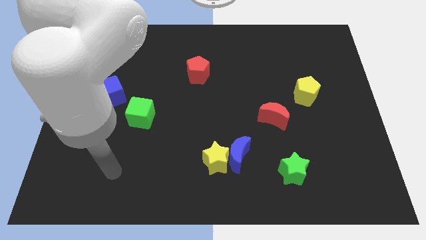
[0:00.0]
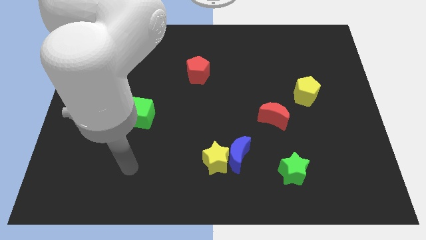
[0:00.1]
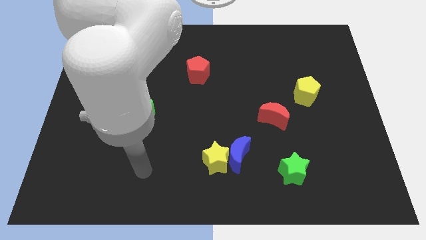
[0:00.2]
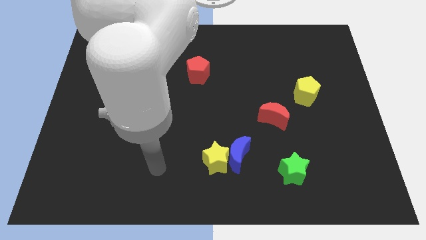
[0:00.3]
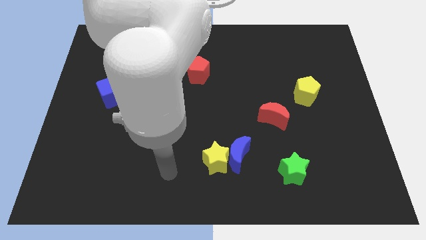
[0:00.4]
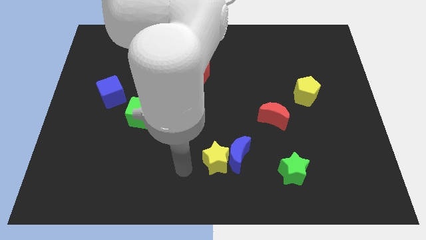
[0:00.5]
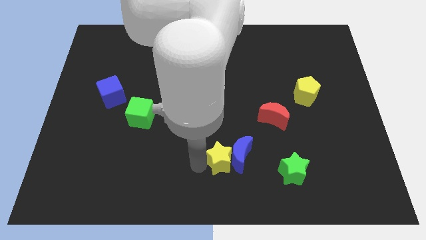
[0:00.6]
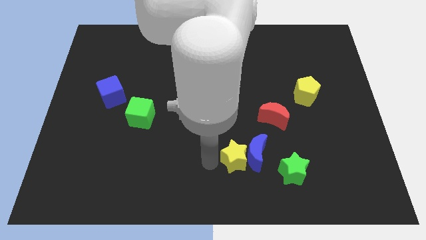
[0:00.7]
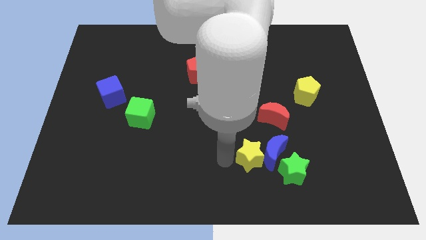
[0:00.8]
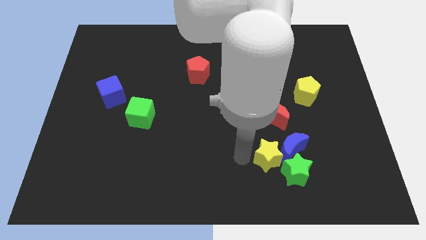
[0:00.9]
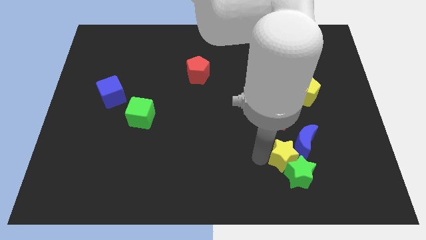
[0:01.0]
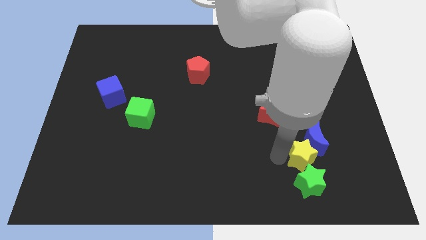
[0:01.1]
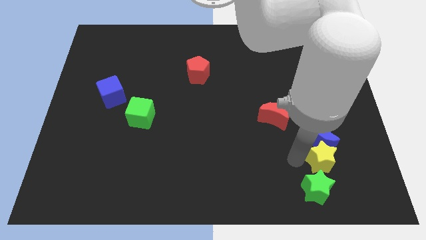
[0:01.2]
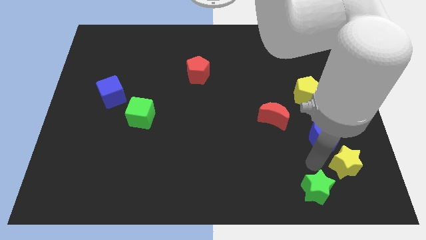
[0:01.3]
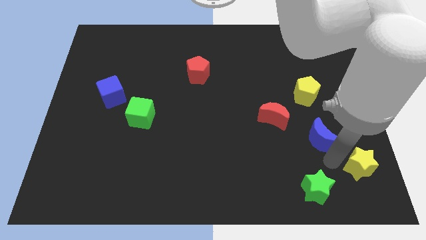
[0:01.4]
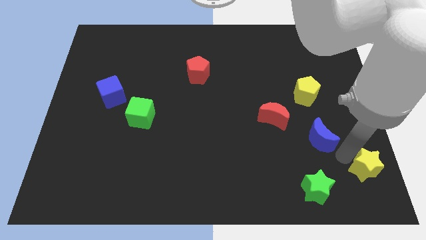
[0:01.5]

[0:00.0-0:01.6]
pull the blue moon apart from the yellow star

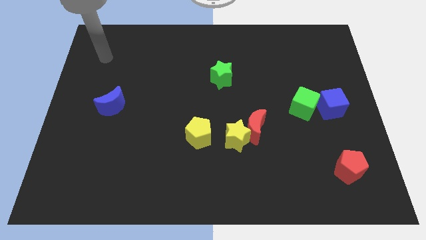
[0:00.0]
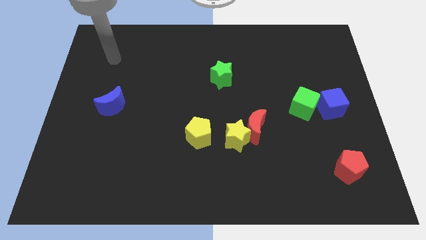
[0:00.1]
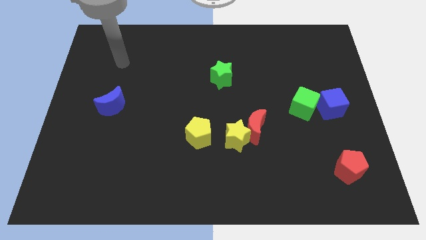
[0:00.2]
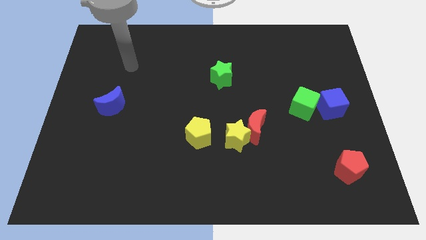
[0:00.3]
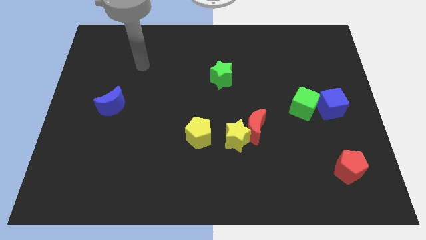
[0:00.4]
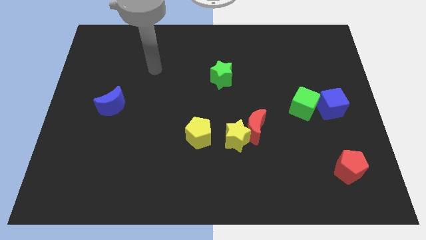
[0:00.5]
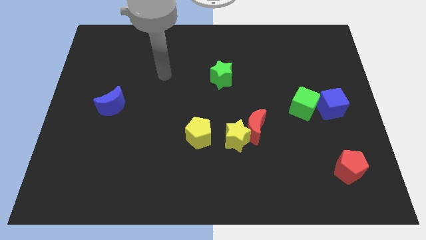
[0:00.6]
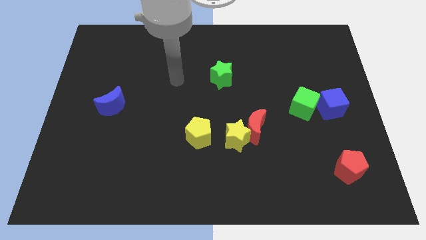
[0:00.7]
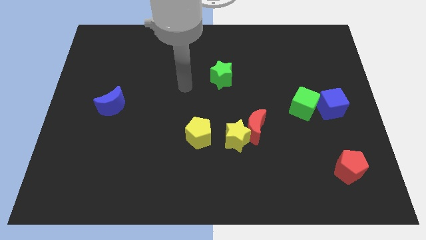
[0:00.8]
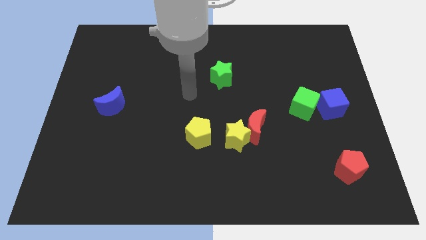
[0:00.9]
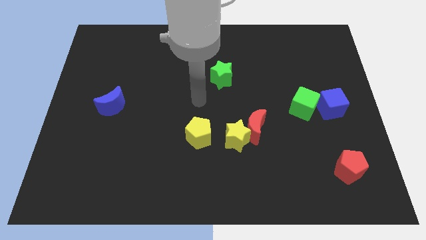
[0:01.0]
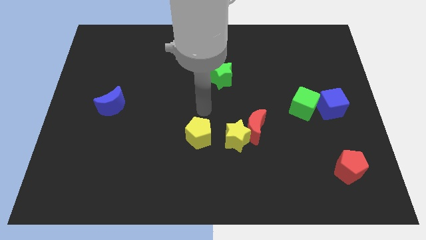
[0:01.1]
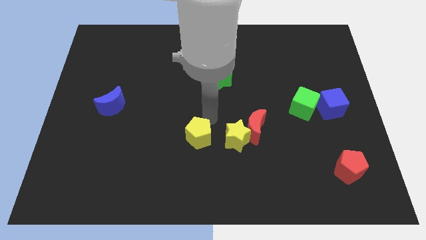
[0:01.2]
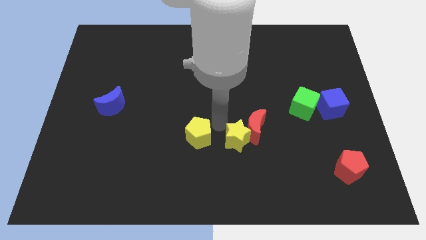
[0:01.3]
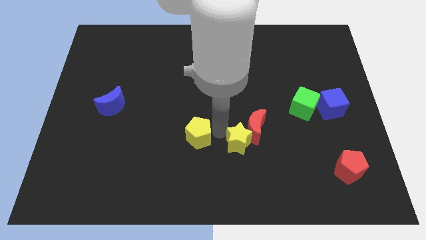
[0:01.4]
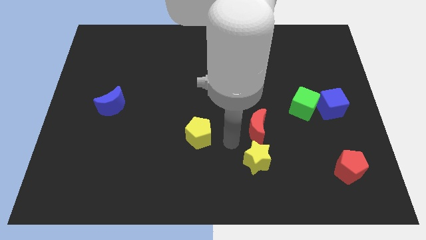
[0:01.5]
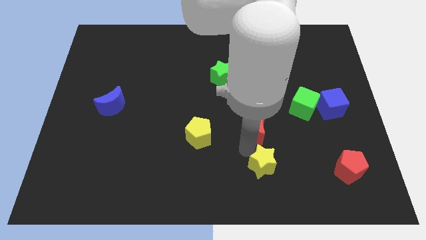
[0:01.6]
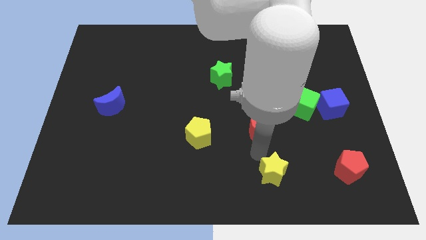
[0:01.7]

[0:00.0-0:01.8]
pull the red moon apart from the yellow star

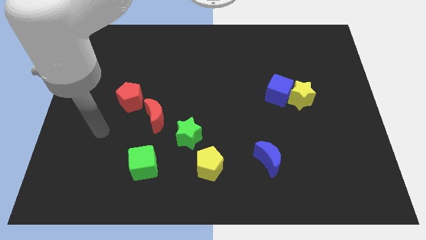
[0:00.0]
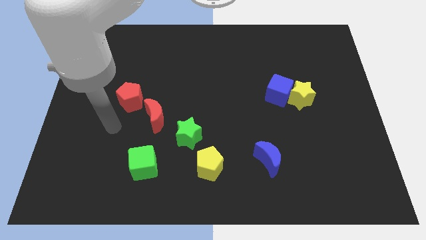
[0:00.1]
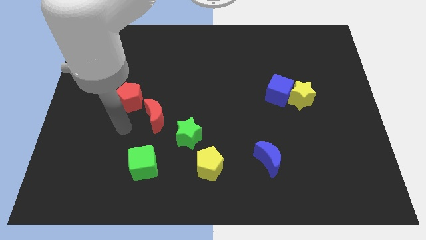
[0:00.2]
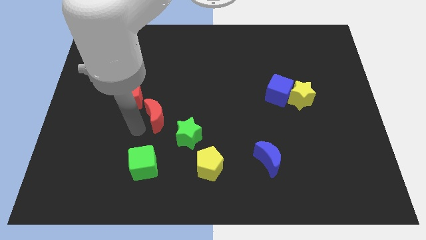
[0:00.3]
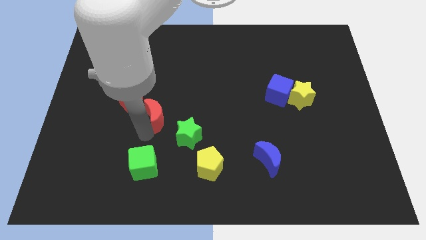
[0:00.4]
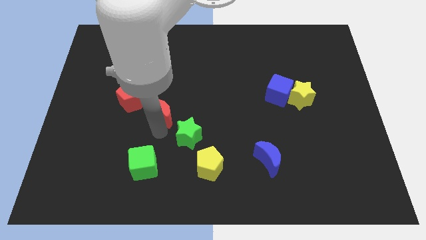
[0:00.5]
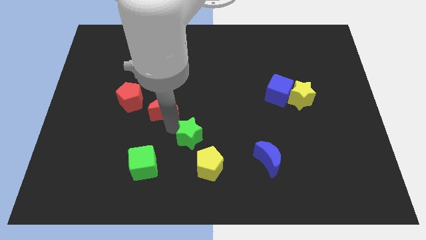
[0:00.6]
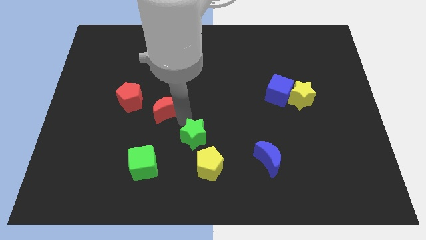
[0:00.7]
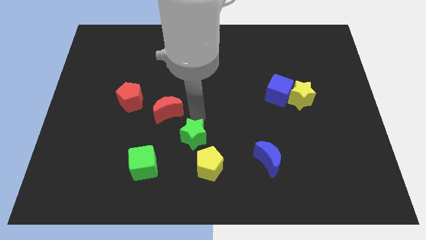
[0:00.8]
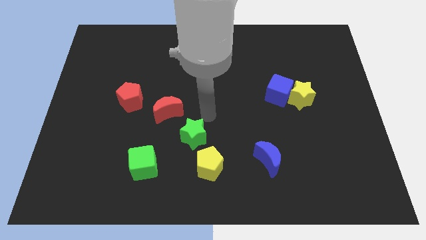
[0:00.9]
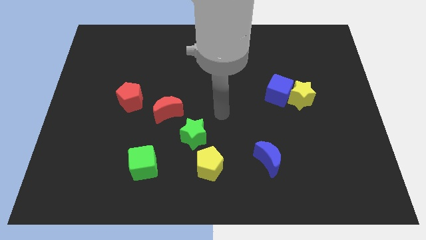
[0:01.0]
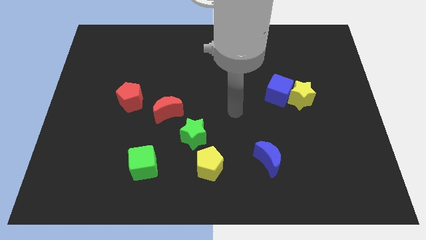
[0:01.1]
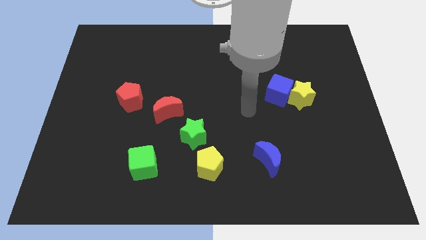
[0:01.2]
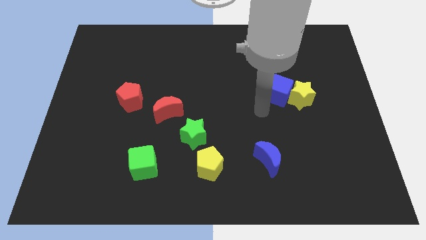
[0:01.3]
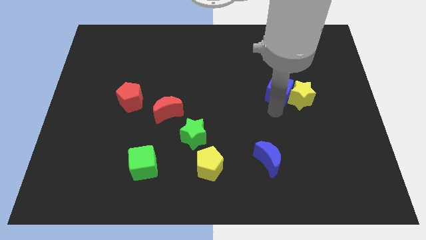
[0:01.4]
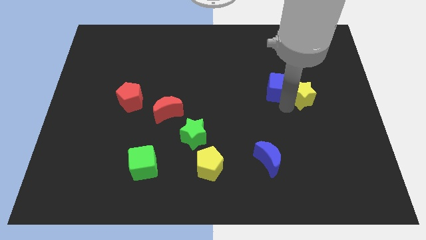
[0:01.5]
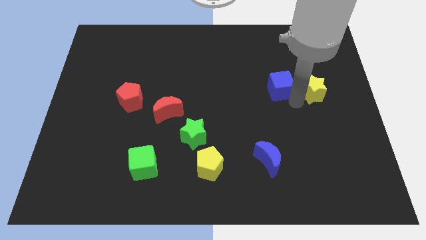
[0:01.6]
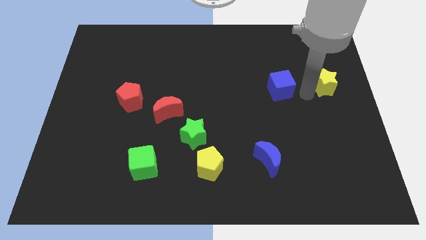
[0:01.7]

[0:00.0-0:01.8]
pull the blue cube apart from the yellow star

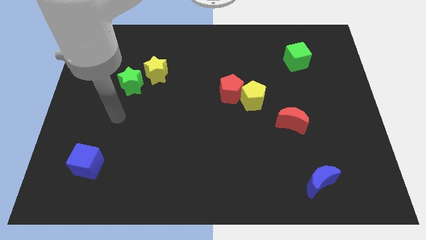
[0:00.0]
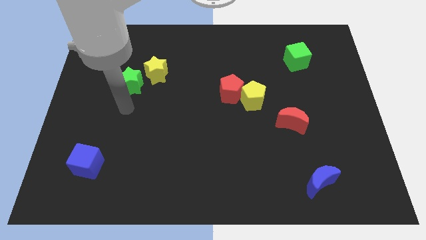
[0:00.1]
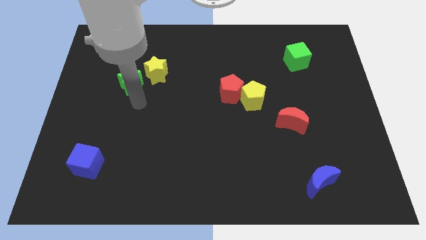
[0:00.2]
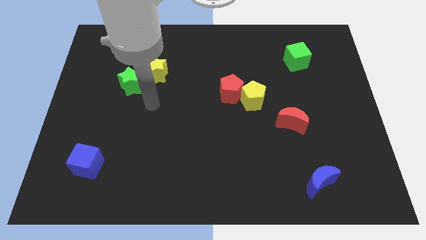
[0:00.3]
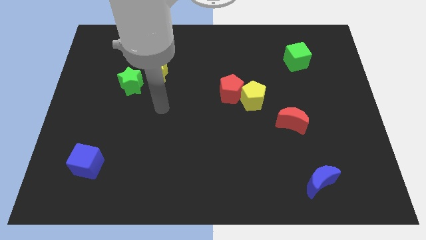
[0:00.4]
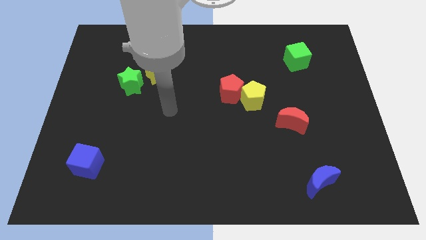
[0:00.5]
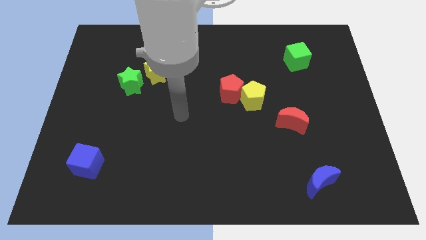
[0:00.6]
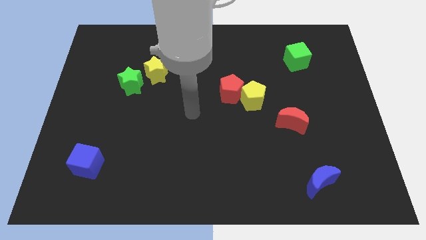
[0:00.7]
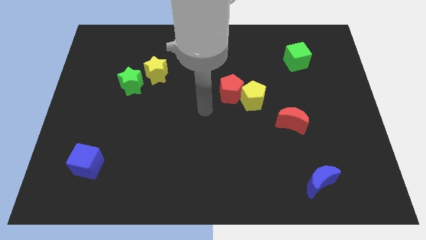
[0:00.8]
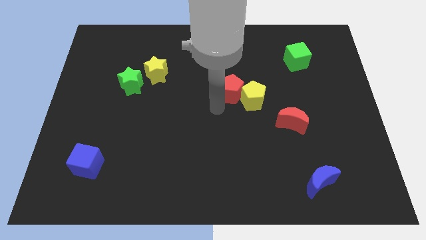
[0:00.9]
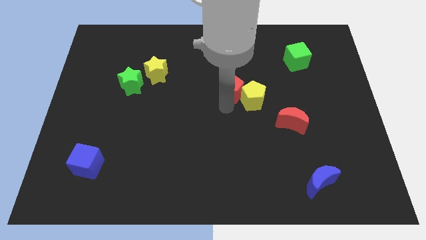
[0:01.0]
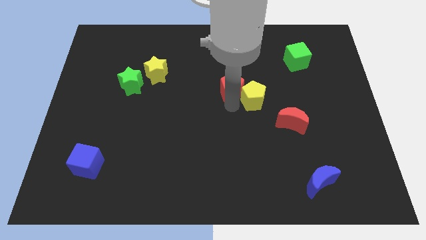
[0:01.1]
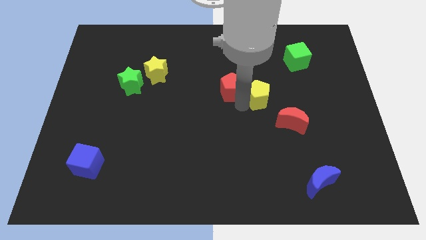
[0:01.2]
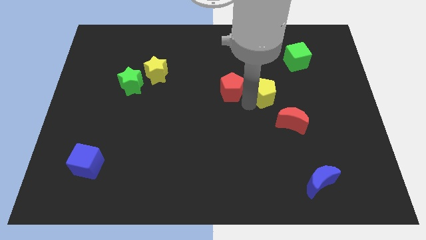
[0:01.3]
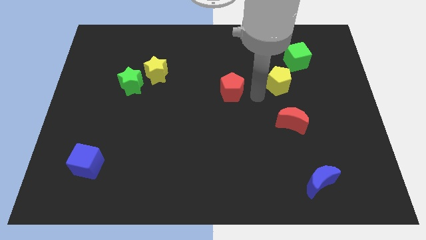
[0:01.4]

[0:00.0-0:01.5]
separate the red pentagon from the yellow pentagon

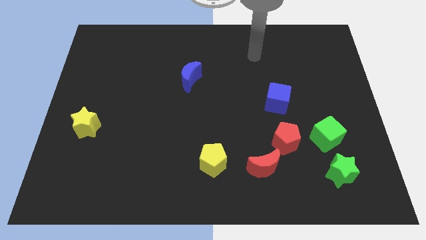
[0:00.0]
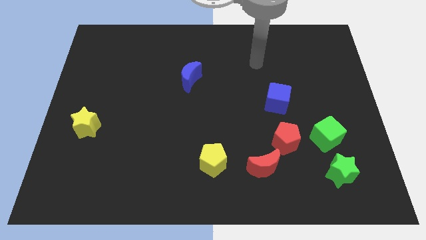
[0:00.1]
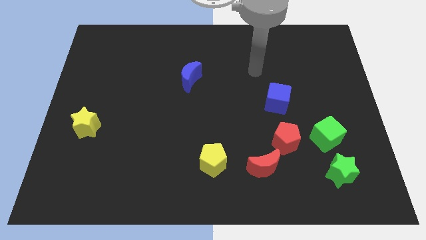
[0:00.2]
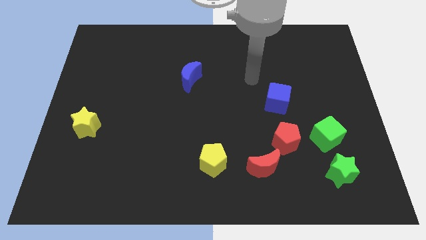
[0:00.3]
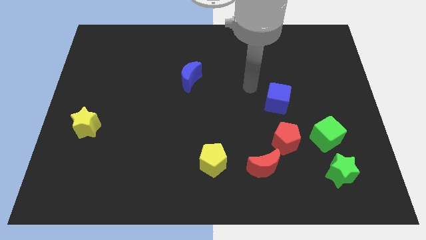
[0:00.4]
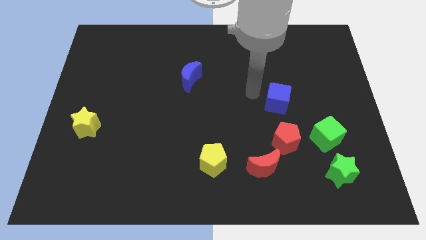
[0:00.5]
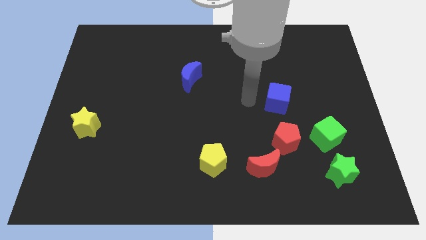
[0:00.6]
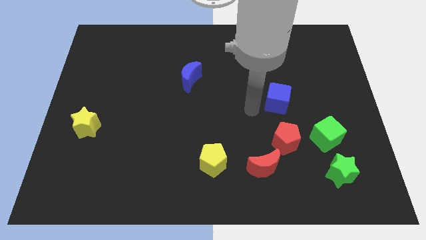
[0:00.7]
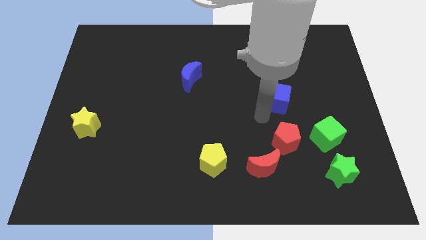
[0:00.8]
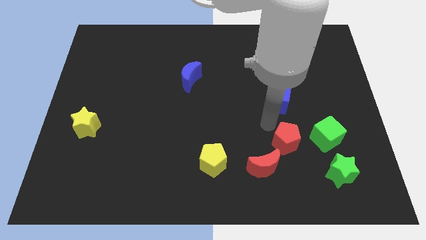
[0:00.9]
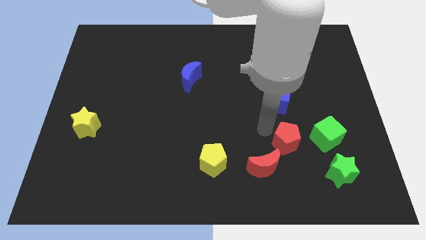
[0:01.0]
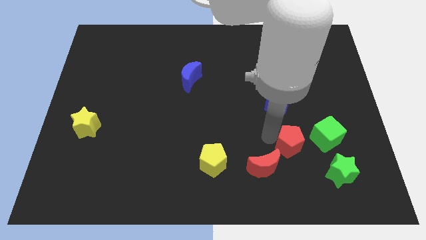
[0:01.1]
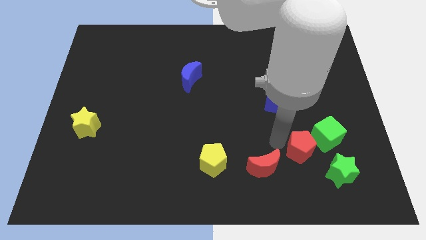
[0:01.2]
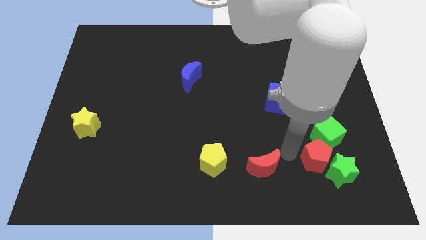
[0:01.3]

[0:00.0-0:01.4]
separate the red moon from the red pentagon

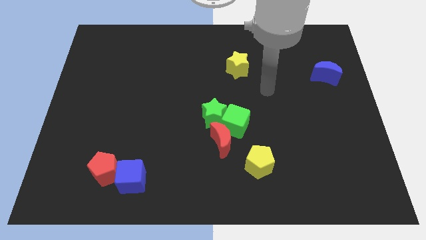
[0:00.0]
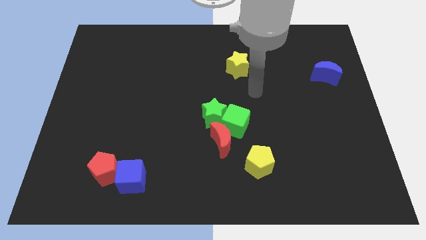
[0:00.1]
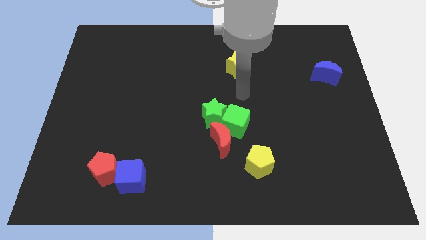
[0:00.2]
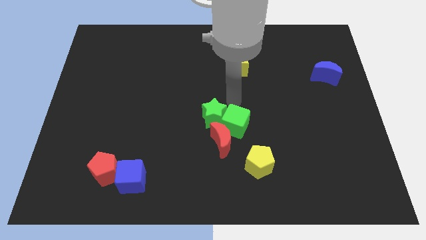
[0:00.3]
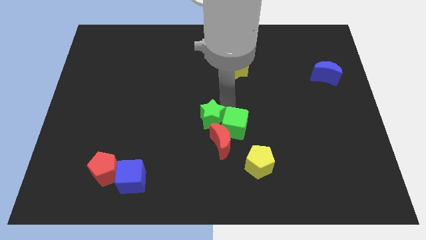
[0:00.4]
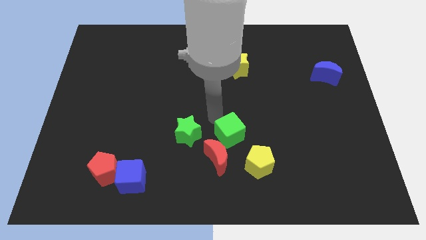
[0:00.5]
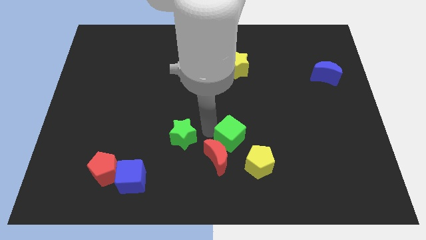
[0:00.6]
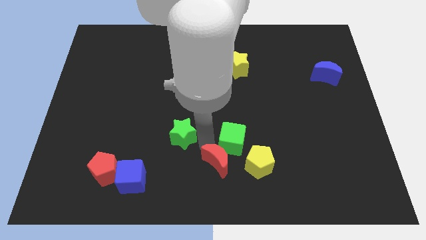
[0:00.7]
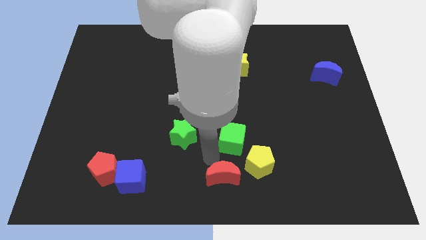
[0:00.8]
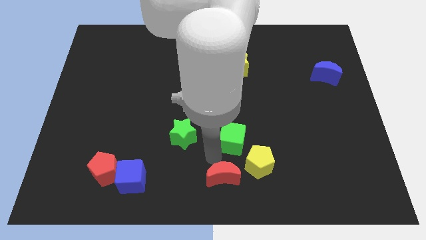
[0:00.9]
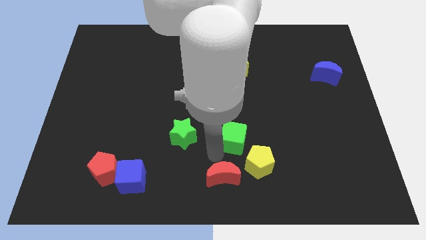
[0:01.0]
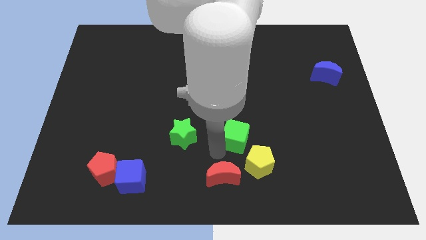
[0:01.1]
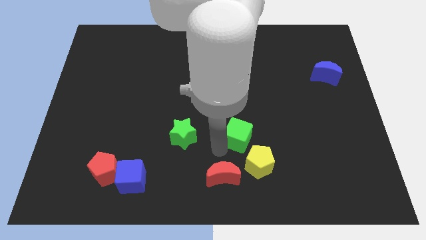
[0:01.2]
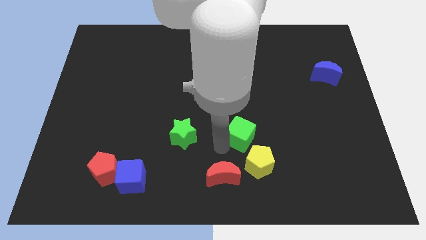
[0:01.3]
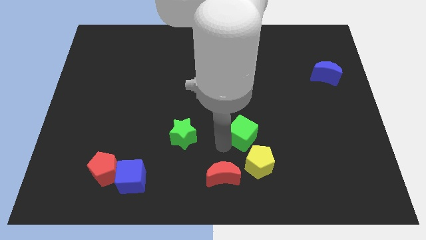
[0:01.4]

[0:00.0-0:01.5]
move the green cube away from the green star and red moon
